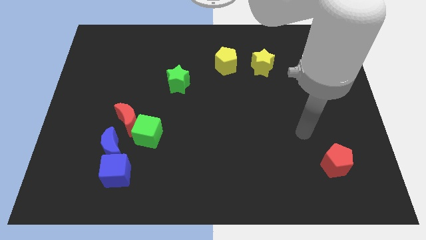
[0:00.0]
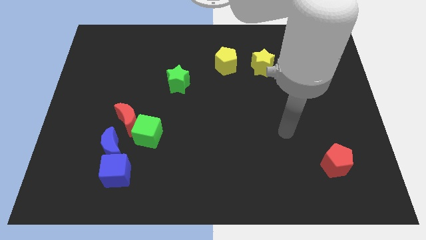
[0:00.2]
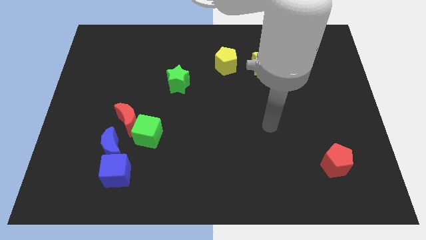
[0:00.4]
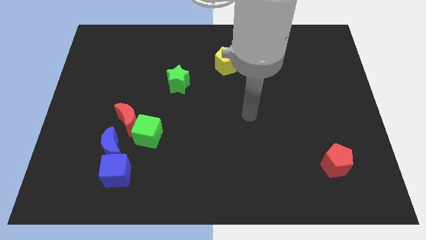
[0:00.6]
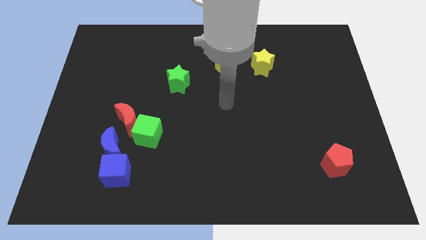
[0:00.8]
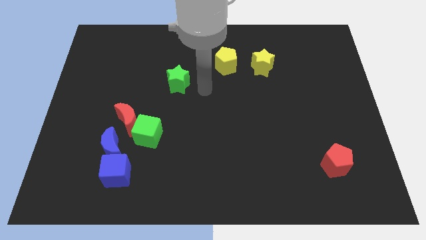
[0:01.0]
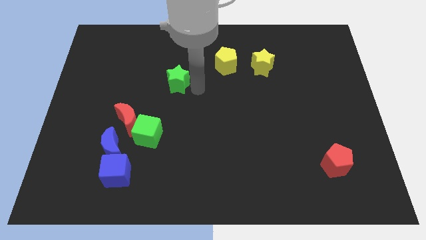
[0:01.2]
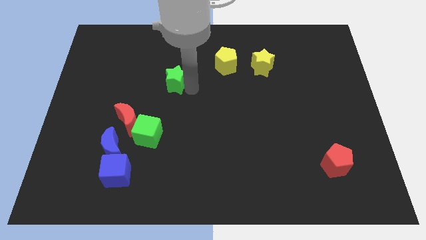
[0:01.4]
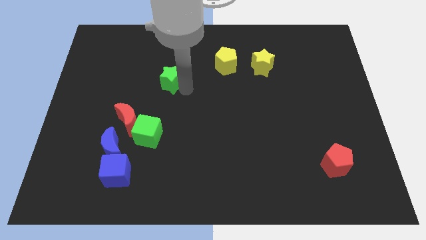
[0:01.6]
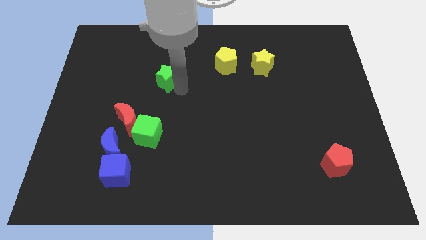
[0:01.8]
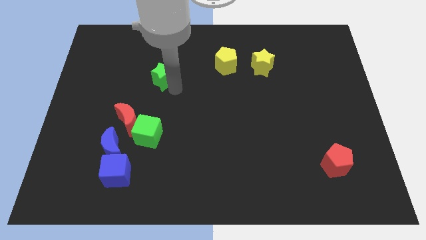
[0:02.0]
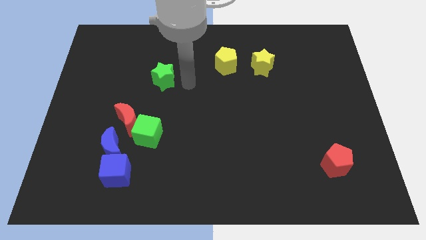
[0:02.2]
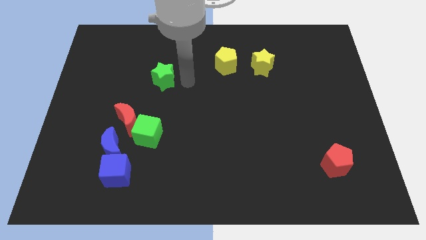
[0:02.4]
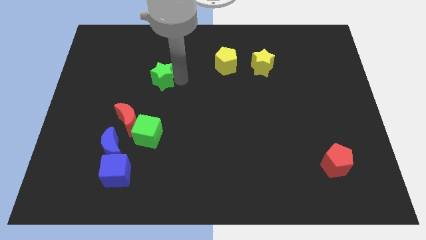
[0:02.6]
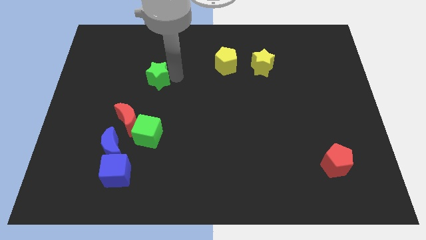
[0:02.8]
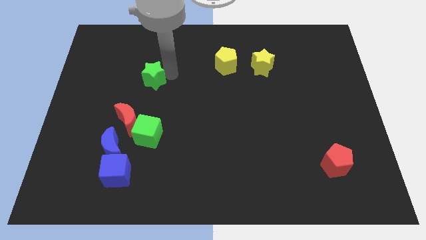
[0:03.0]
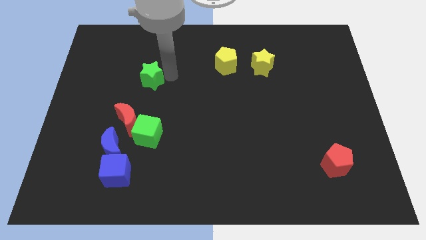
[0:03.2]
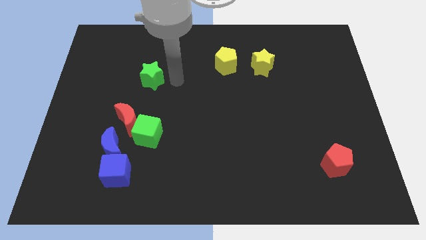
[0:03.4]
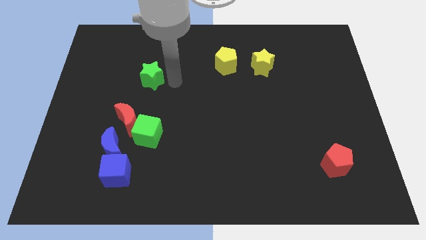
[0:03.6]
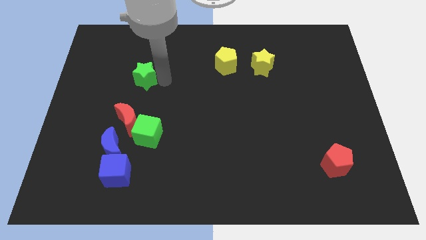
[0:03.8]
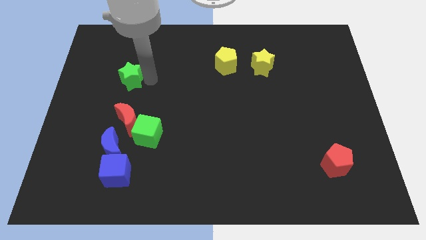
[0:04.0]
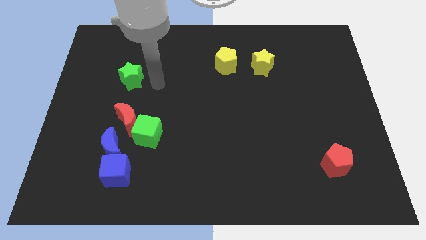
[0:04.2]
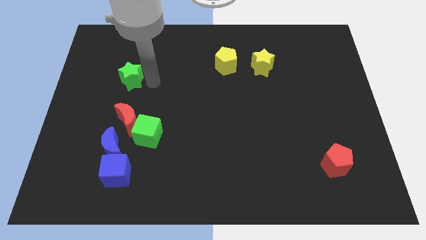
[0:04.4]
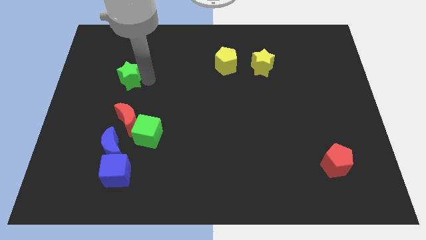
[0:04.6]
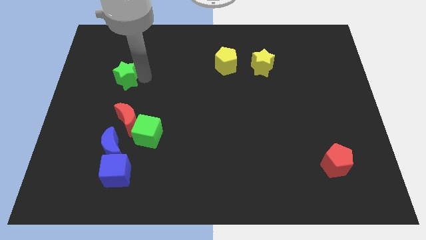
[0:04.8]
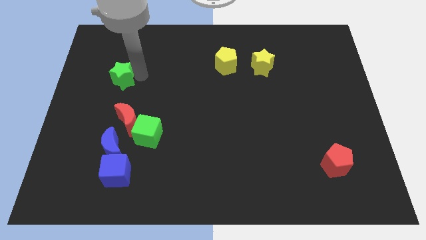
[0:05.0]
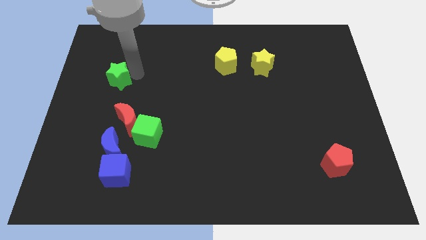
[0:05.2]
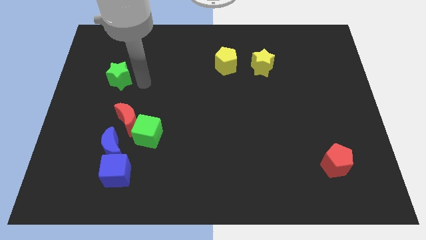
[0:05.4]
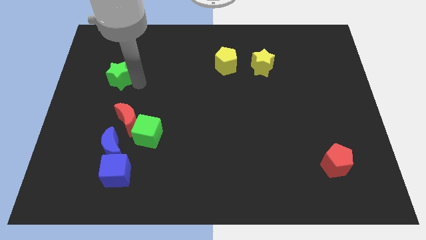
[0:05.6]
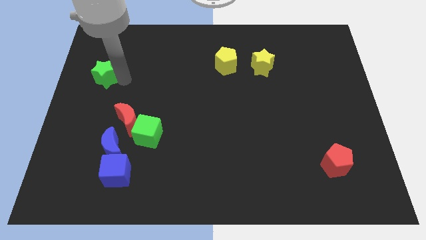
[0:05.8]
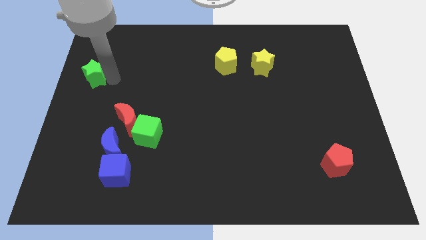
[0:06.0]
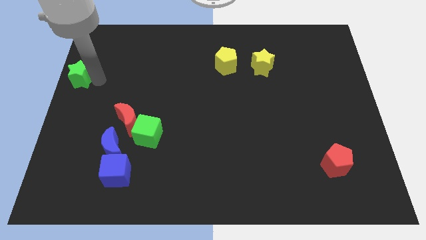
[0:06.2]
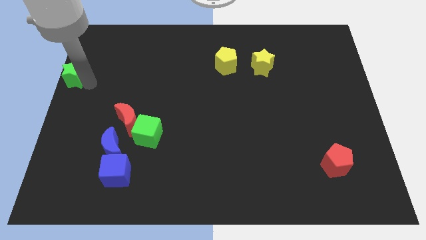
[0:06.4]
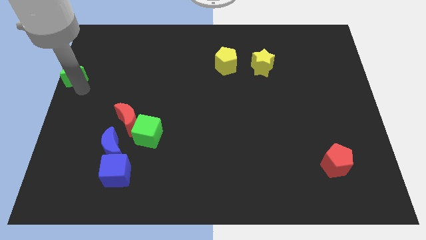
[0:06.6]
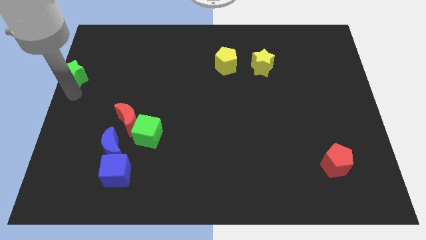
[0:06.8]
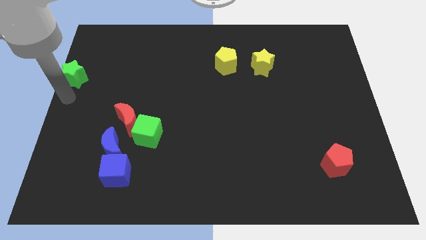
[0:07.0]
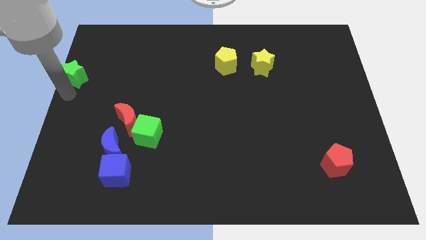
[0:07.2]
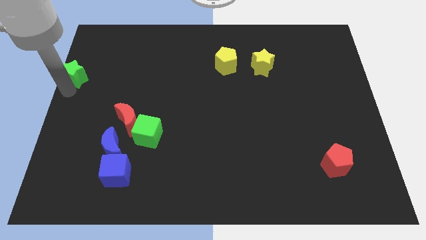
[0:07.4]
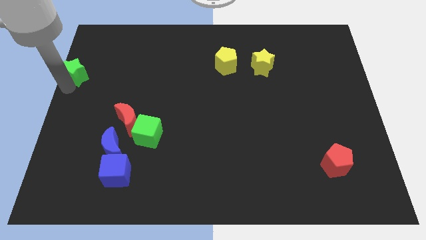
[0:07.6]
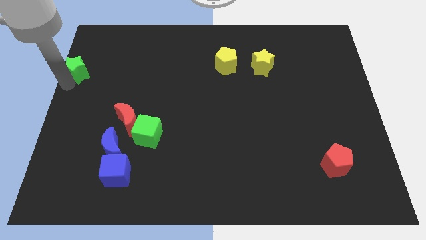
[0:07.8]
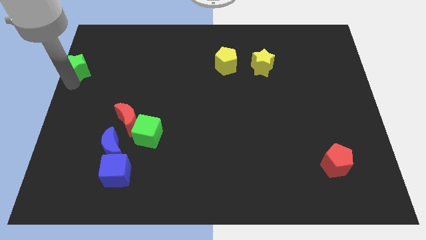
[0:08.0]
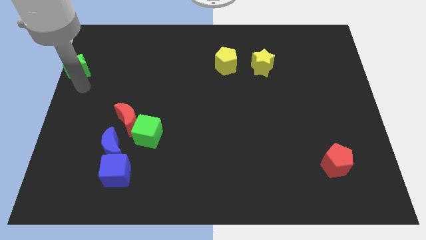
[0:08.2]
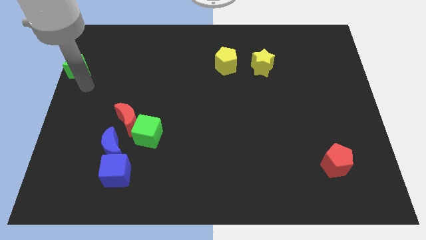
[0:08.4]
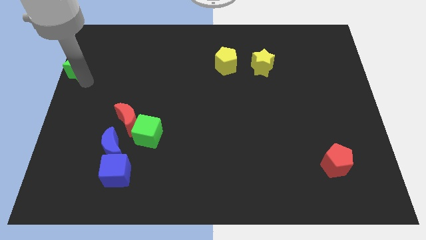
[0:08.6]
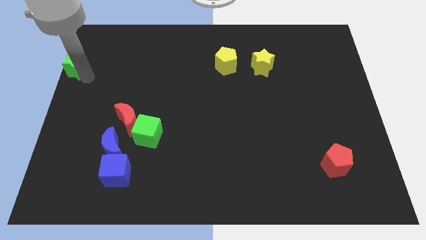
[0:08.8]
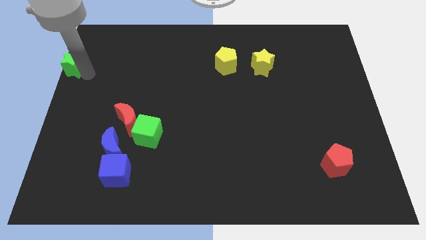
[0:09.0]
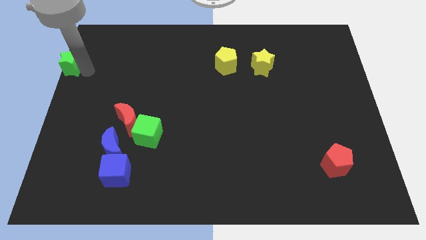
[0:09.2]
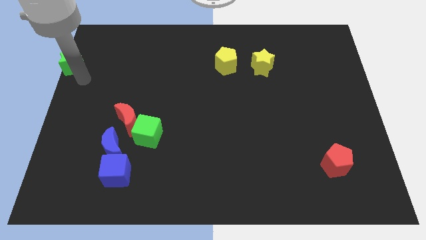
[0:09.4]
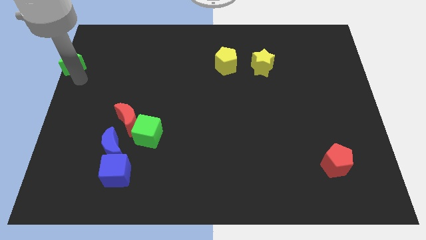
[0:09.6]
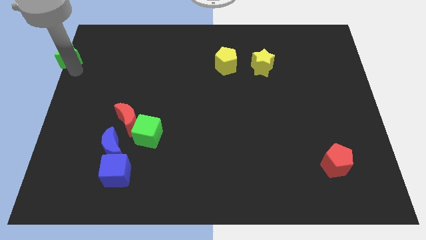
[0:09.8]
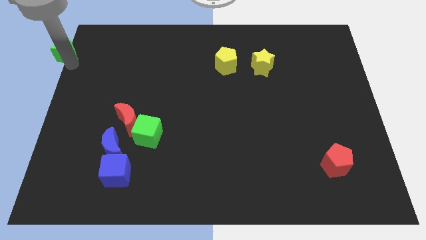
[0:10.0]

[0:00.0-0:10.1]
push the green star to the top left

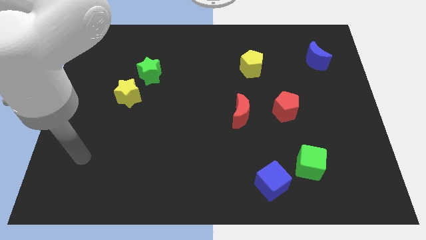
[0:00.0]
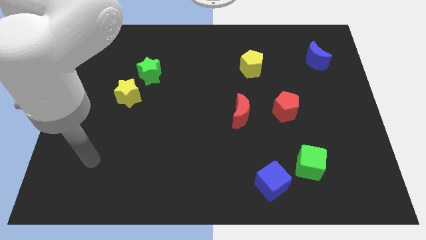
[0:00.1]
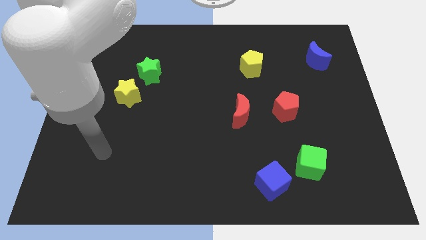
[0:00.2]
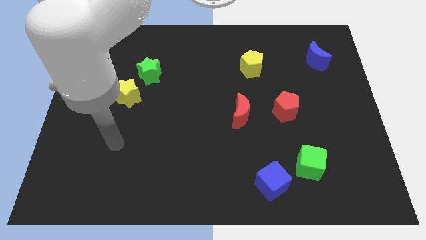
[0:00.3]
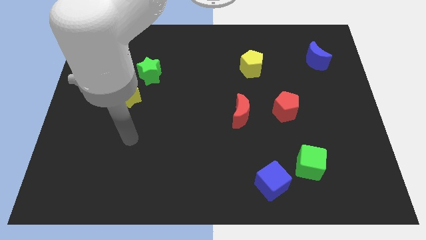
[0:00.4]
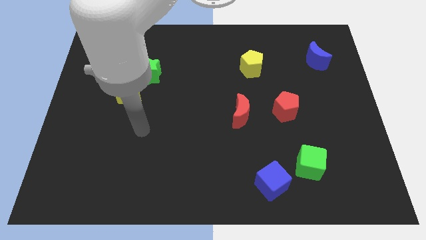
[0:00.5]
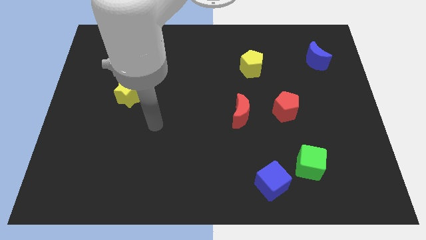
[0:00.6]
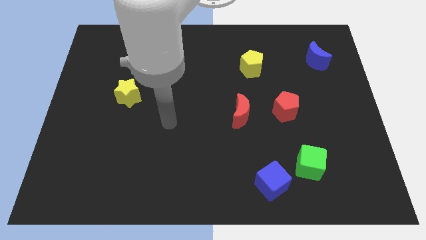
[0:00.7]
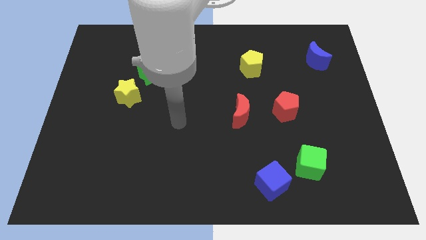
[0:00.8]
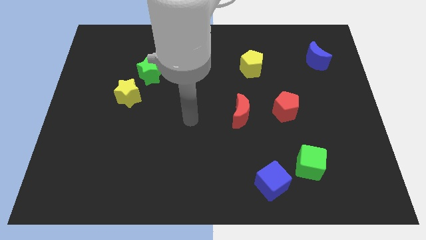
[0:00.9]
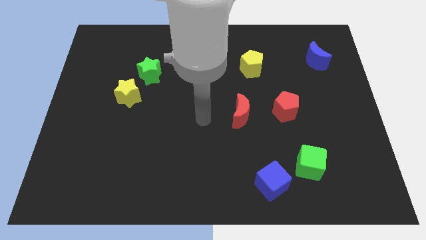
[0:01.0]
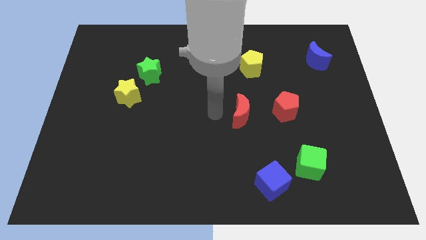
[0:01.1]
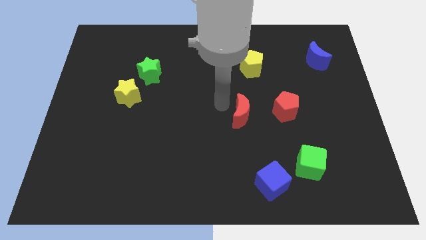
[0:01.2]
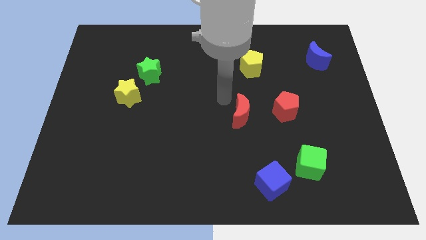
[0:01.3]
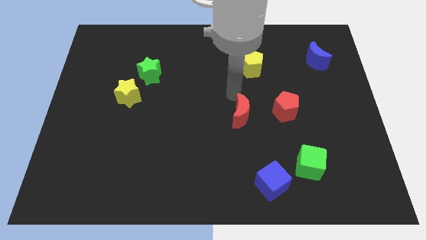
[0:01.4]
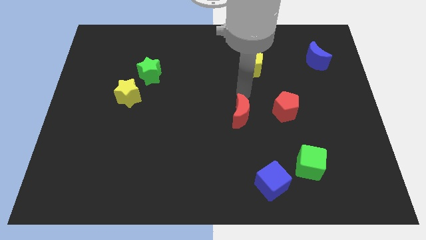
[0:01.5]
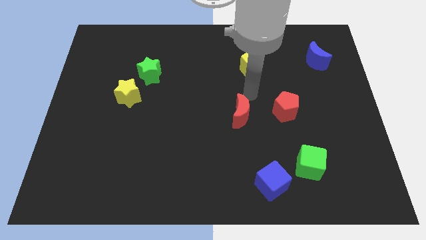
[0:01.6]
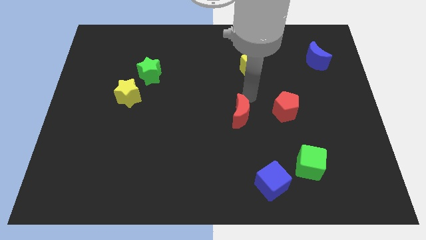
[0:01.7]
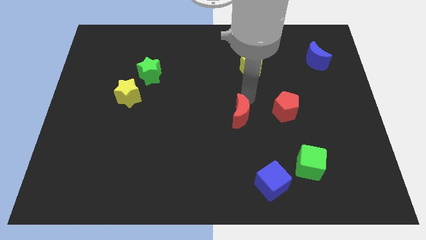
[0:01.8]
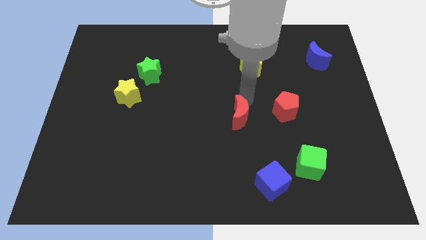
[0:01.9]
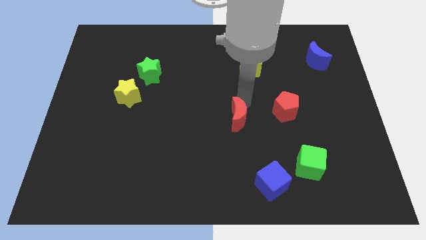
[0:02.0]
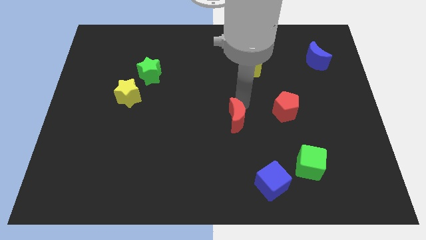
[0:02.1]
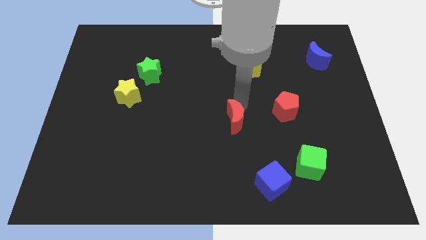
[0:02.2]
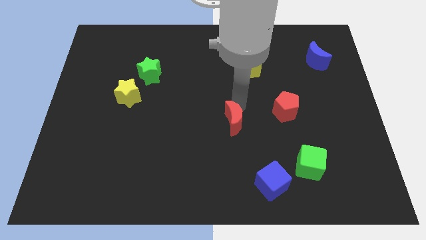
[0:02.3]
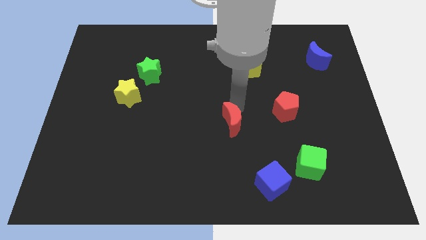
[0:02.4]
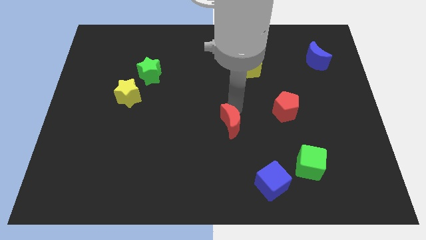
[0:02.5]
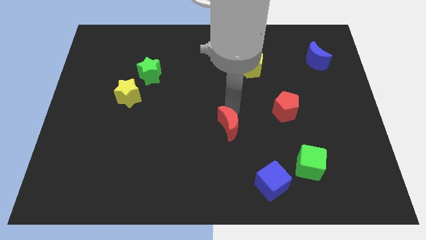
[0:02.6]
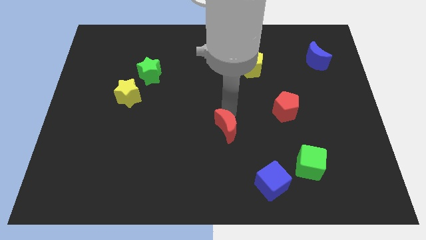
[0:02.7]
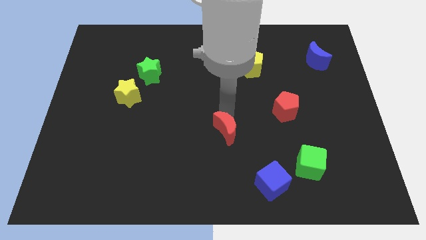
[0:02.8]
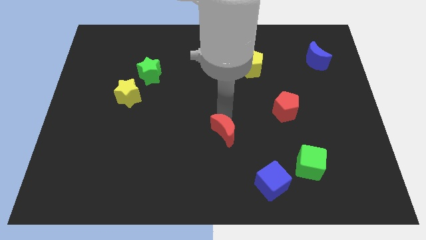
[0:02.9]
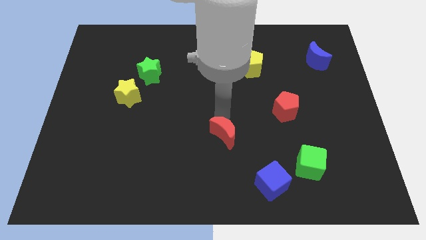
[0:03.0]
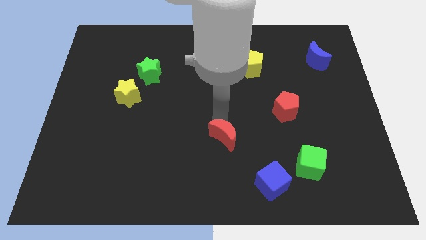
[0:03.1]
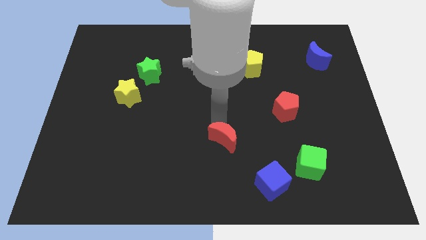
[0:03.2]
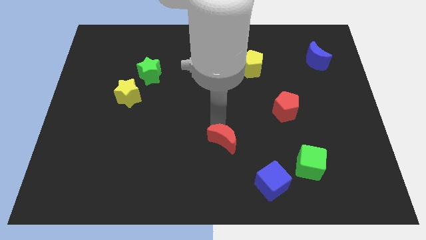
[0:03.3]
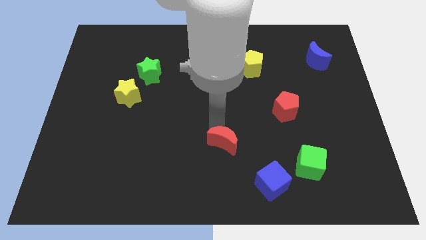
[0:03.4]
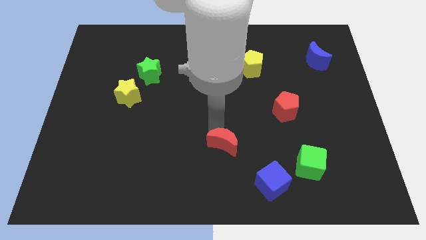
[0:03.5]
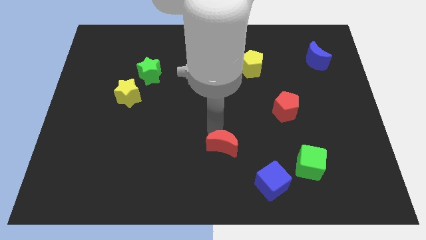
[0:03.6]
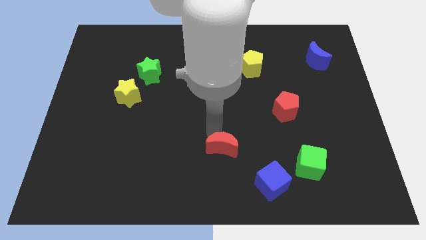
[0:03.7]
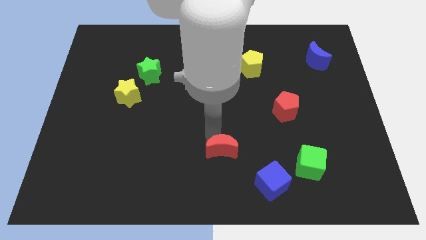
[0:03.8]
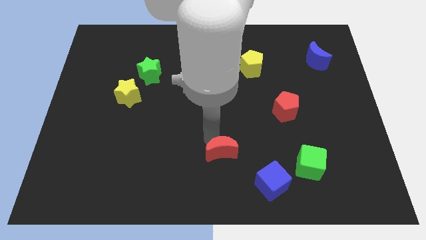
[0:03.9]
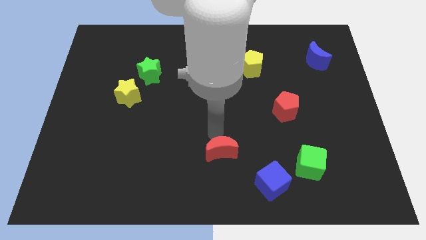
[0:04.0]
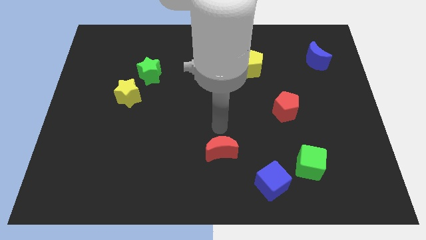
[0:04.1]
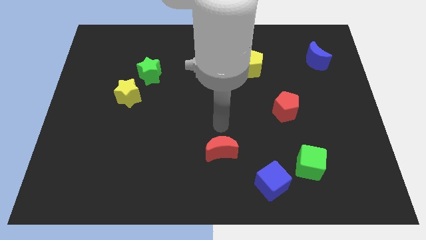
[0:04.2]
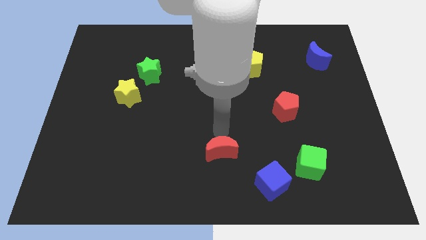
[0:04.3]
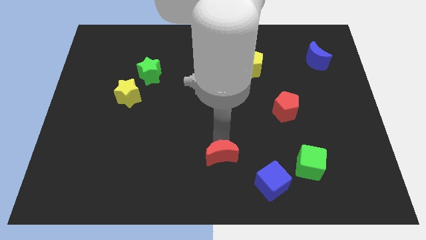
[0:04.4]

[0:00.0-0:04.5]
move the red moon to the bottom side
